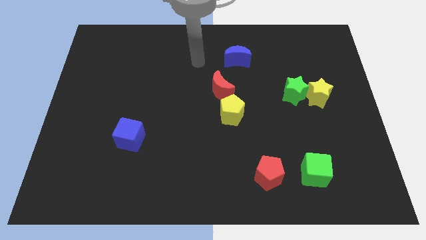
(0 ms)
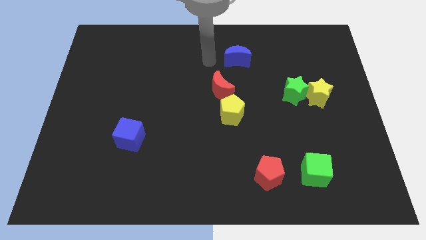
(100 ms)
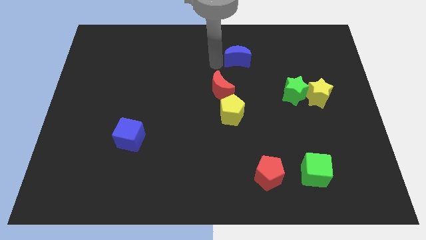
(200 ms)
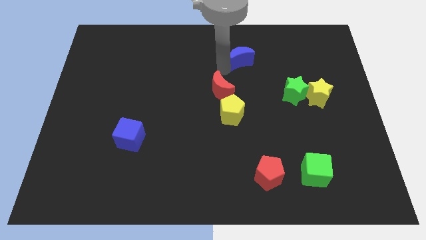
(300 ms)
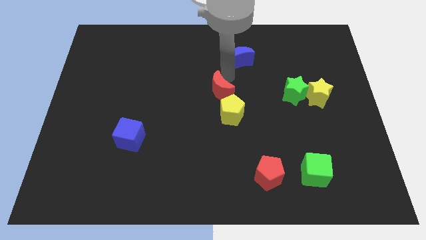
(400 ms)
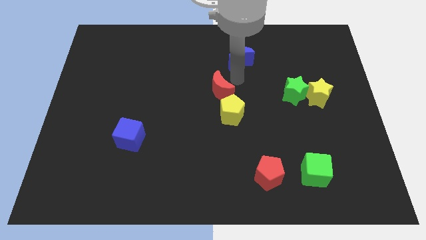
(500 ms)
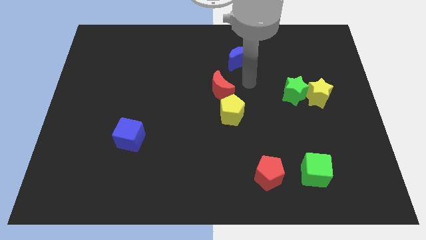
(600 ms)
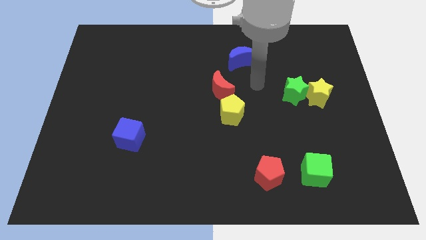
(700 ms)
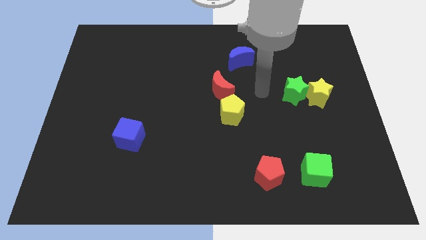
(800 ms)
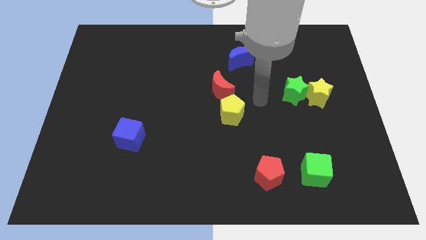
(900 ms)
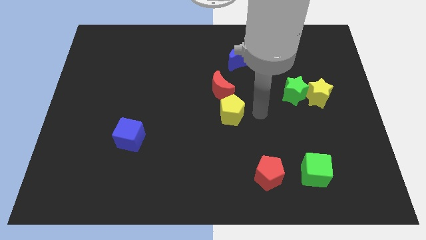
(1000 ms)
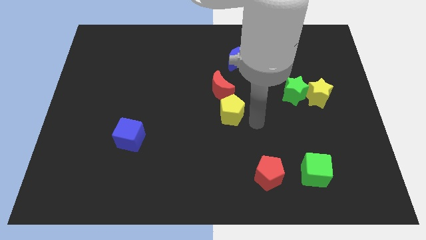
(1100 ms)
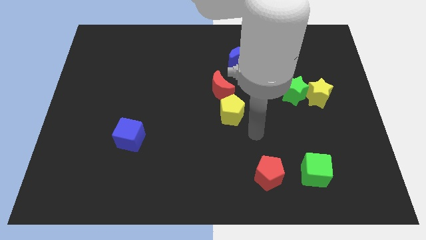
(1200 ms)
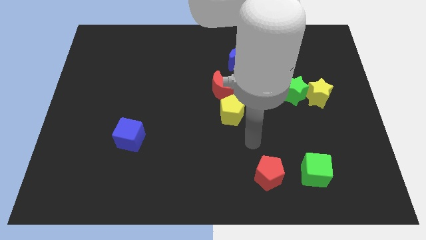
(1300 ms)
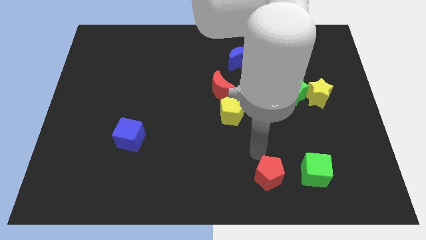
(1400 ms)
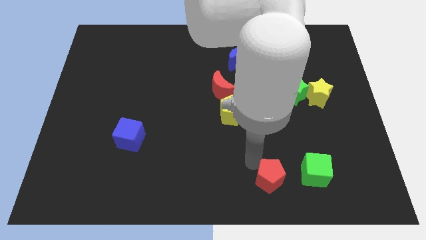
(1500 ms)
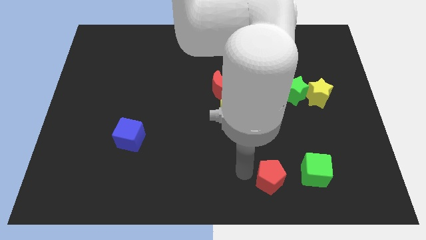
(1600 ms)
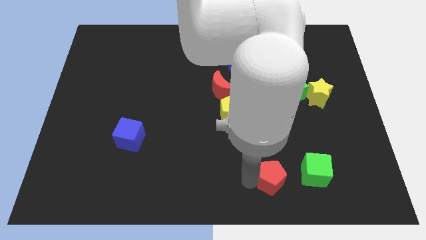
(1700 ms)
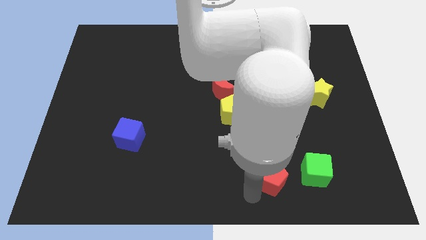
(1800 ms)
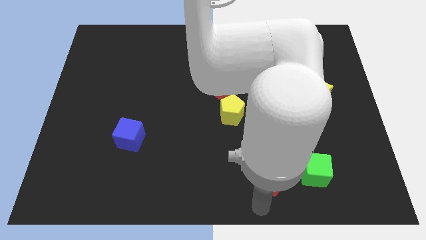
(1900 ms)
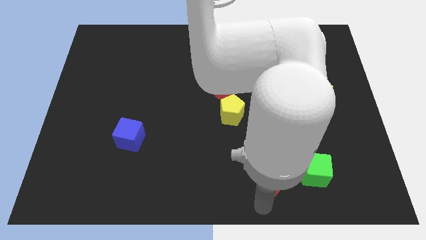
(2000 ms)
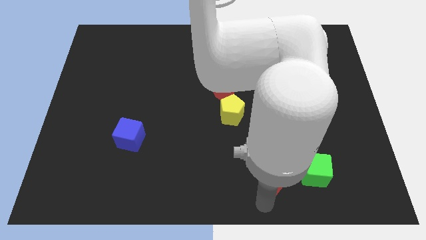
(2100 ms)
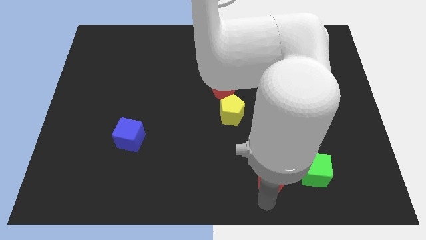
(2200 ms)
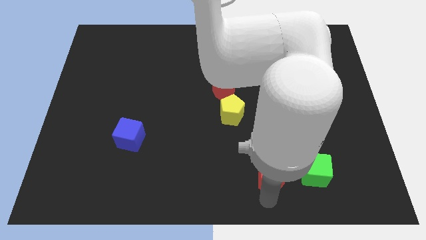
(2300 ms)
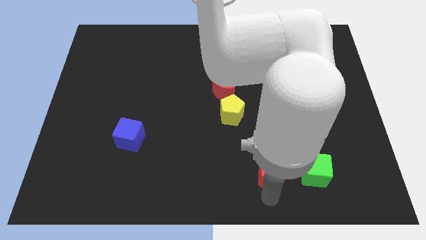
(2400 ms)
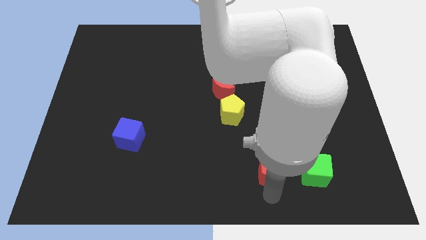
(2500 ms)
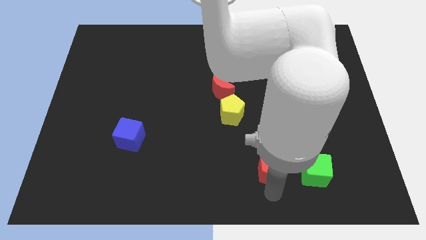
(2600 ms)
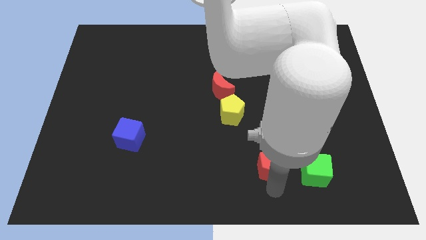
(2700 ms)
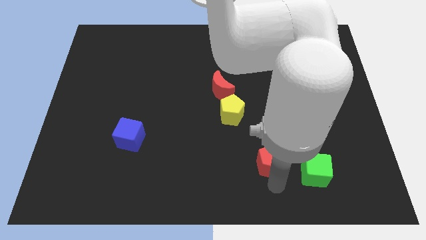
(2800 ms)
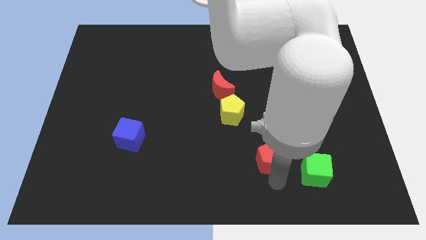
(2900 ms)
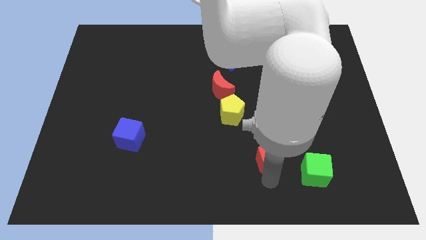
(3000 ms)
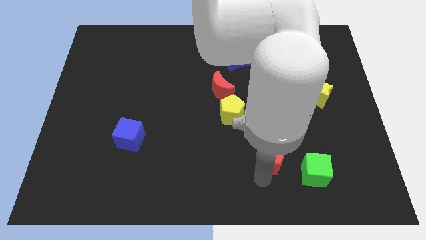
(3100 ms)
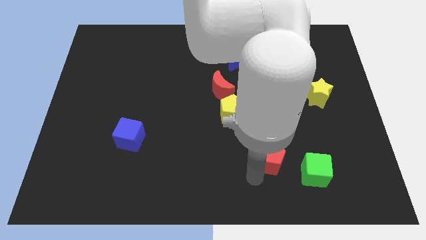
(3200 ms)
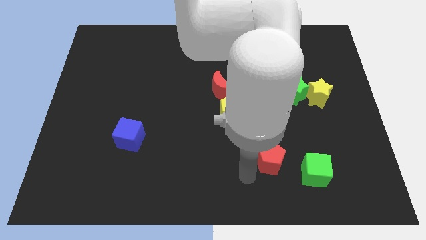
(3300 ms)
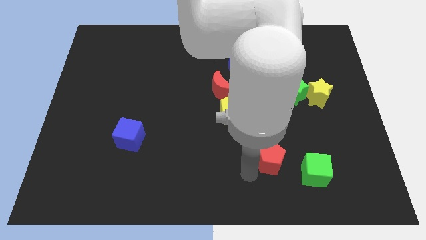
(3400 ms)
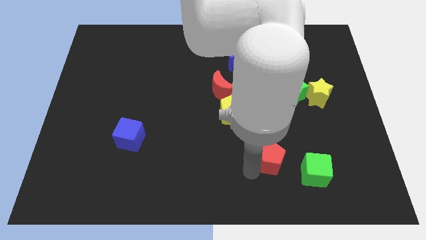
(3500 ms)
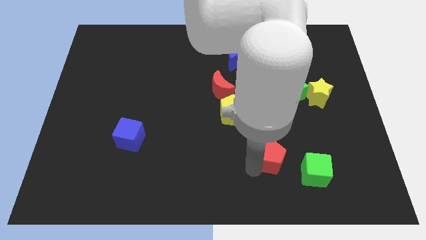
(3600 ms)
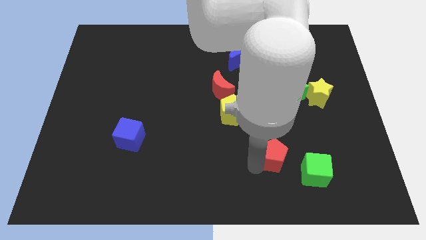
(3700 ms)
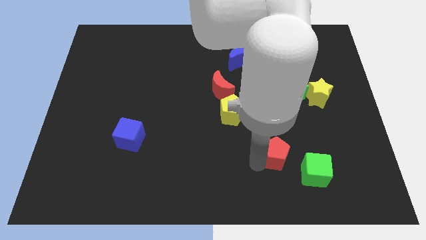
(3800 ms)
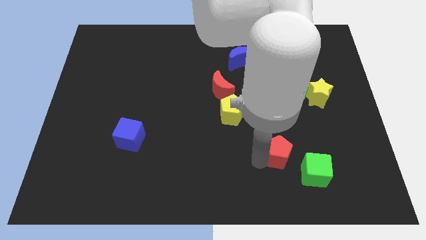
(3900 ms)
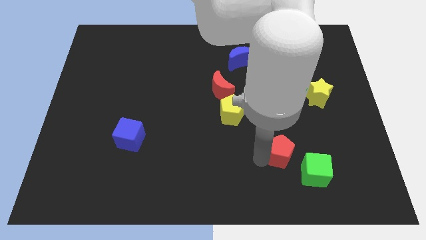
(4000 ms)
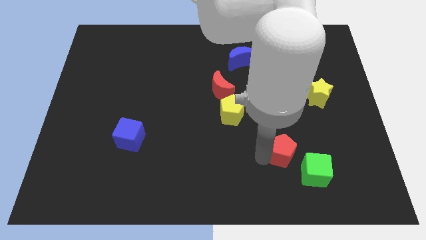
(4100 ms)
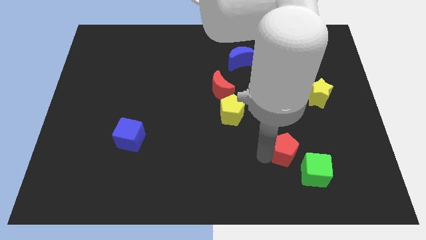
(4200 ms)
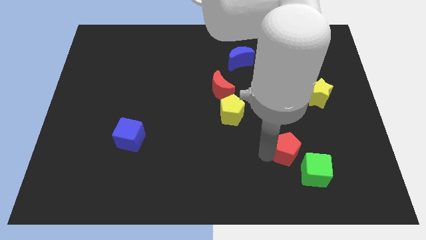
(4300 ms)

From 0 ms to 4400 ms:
push the red pentagon upwards and right somewhat

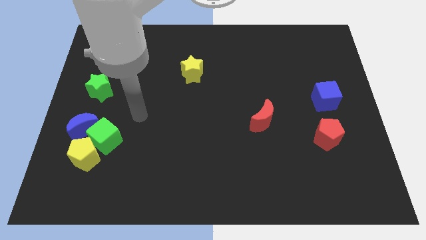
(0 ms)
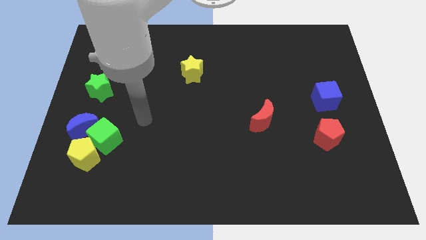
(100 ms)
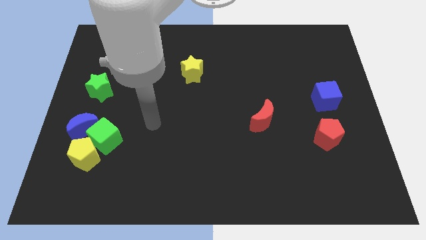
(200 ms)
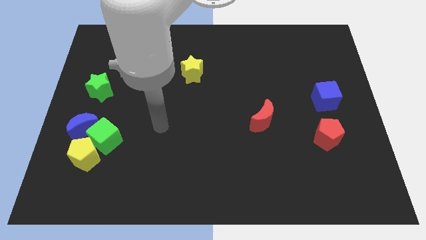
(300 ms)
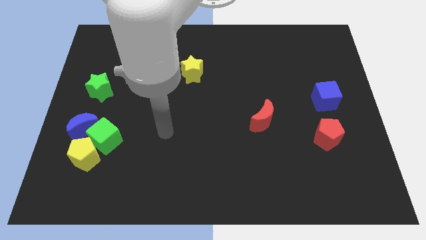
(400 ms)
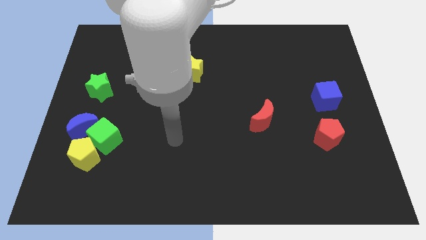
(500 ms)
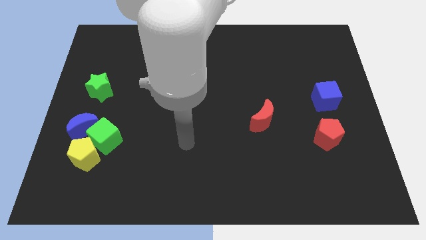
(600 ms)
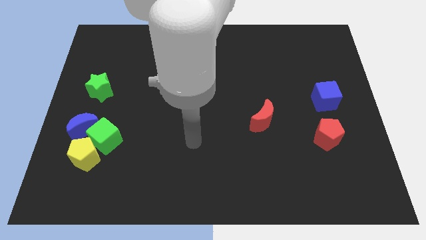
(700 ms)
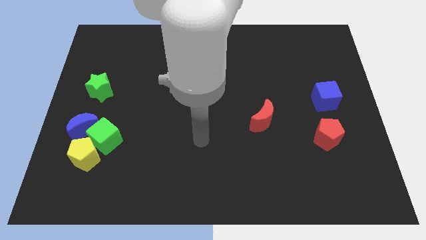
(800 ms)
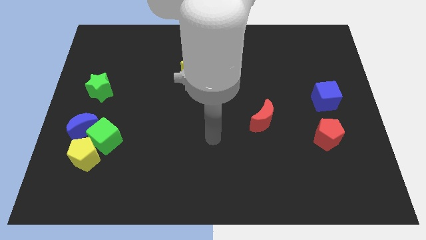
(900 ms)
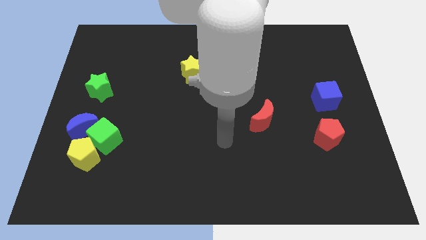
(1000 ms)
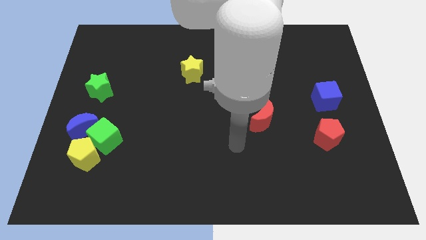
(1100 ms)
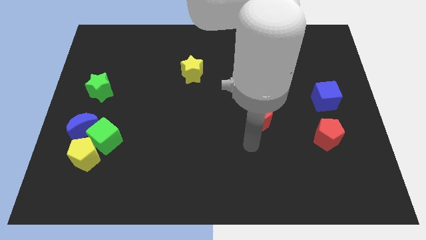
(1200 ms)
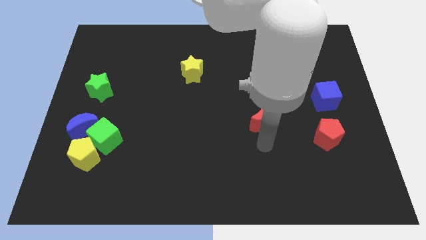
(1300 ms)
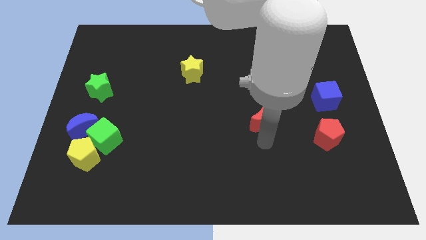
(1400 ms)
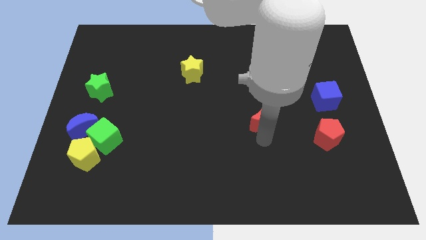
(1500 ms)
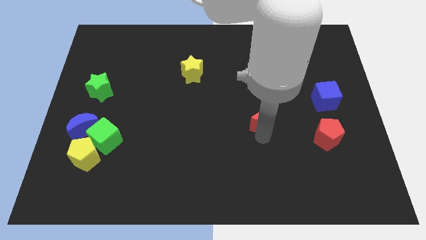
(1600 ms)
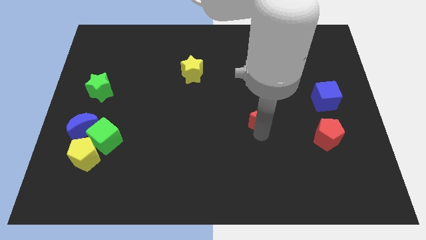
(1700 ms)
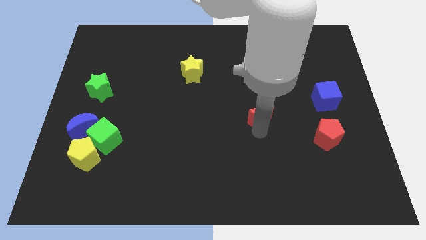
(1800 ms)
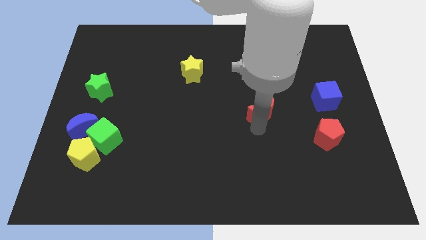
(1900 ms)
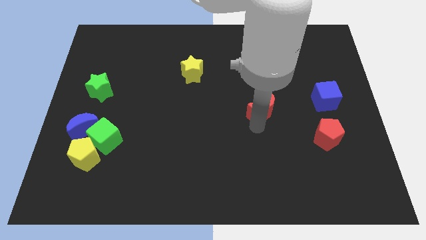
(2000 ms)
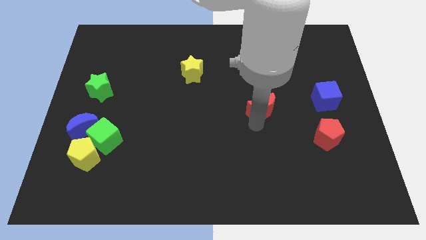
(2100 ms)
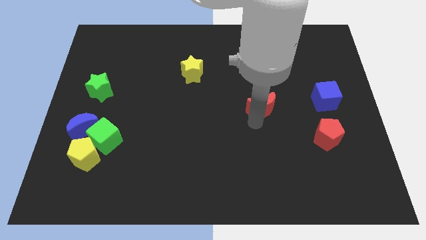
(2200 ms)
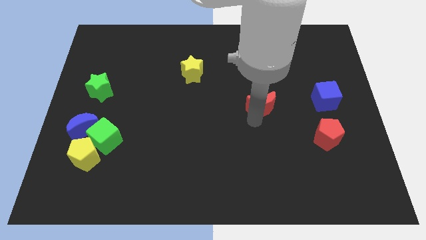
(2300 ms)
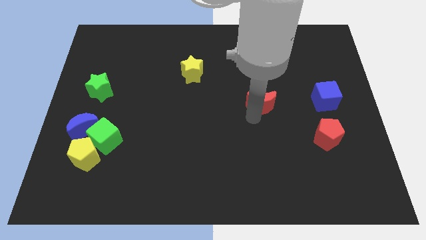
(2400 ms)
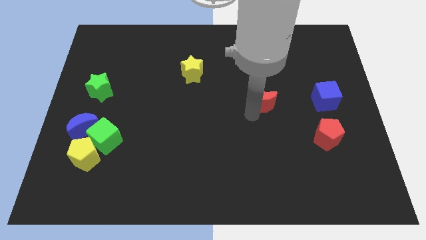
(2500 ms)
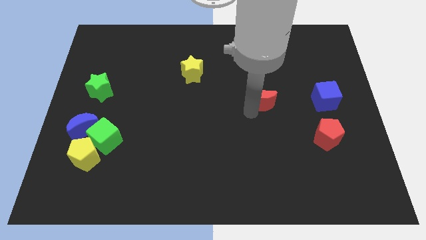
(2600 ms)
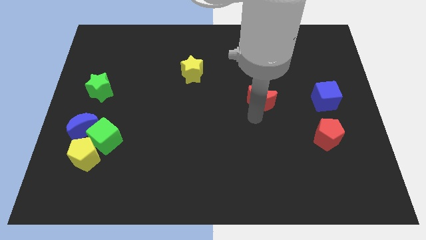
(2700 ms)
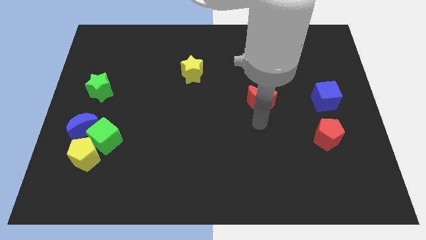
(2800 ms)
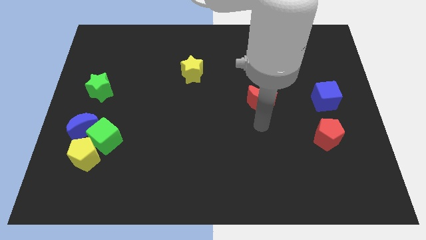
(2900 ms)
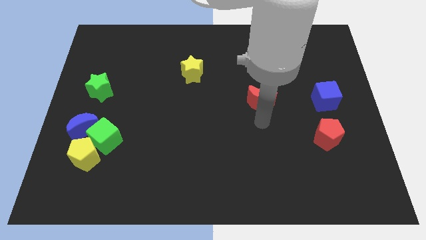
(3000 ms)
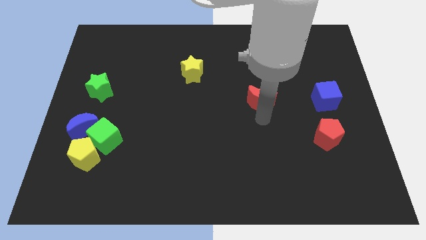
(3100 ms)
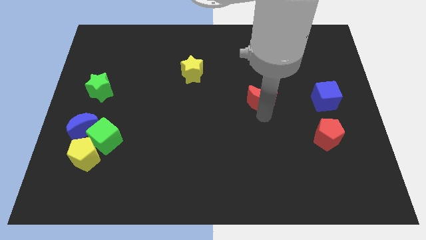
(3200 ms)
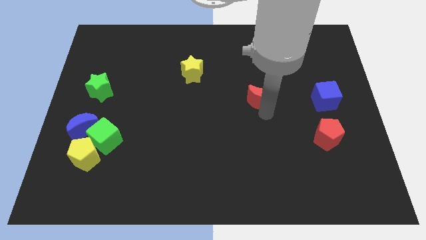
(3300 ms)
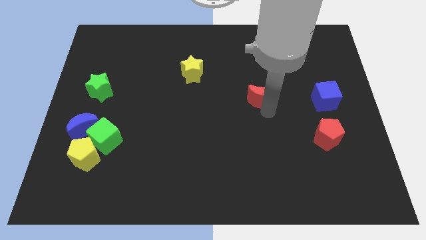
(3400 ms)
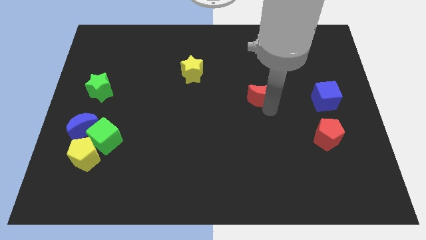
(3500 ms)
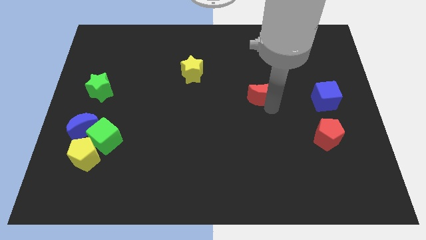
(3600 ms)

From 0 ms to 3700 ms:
move the red moon a bit up
